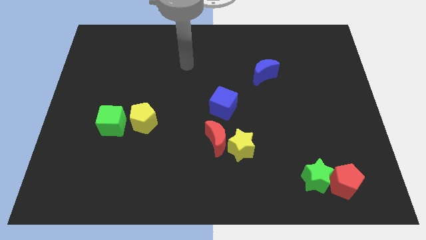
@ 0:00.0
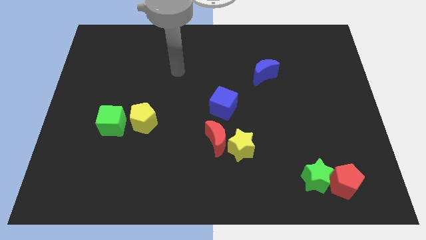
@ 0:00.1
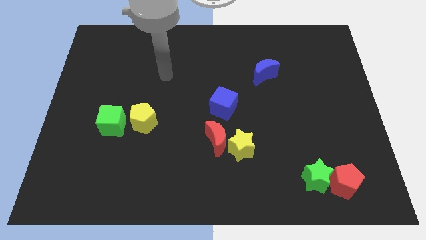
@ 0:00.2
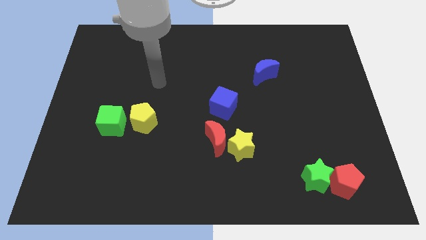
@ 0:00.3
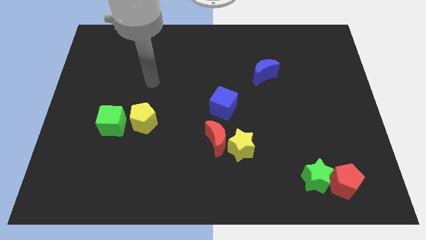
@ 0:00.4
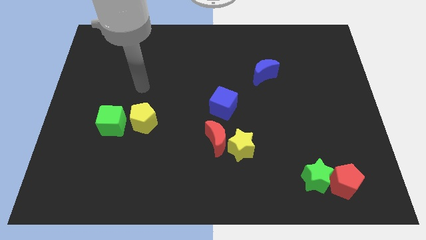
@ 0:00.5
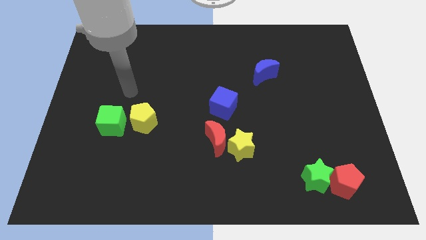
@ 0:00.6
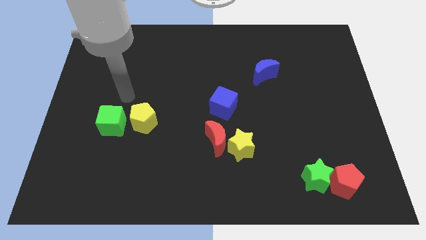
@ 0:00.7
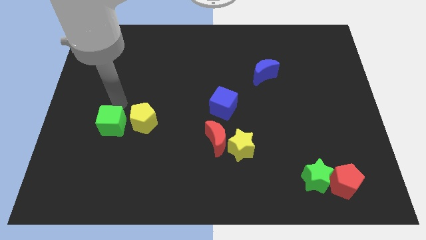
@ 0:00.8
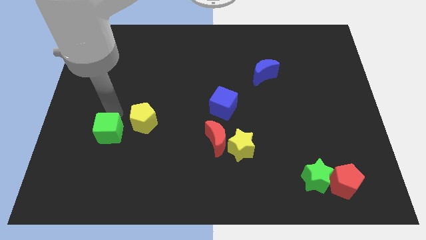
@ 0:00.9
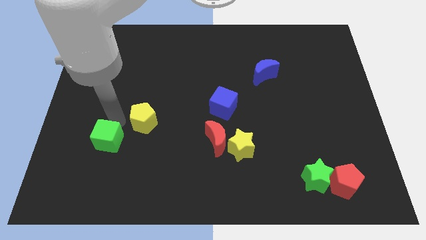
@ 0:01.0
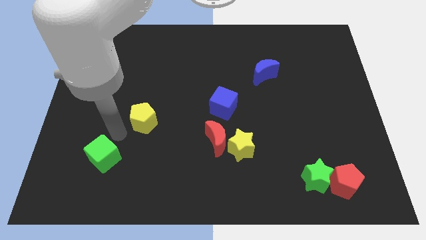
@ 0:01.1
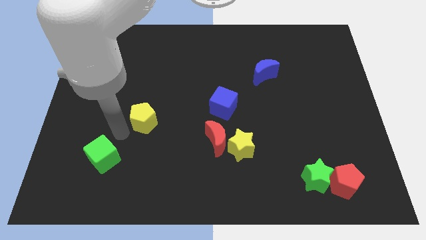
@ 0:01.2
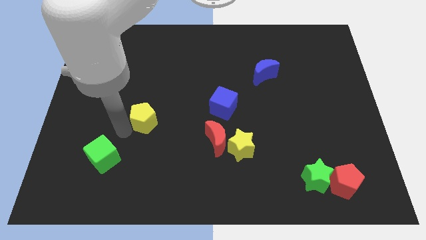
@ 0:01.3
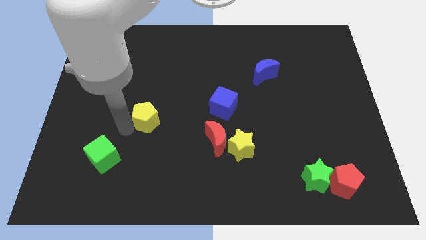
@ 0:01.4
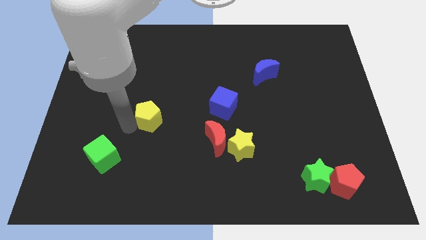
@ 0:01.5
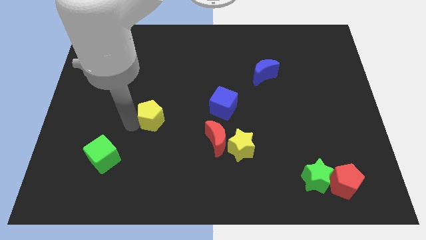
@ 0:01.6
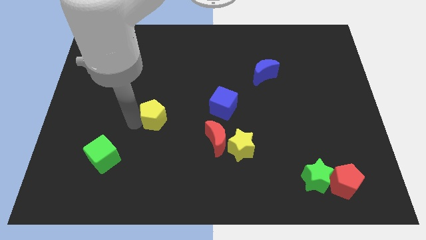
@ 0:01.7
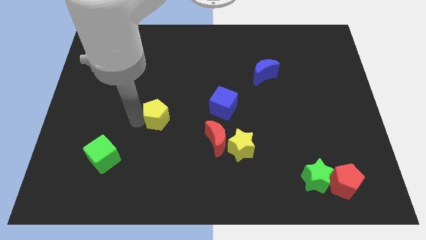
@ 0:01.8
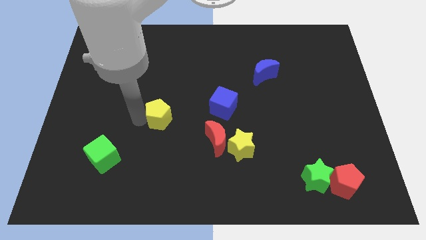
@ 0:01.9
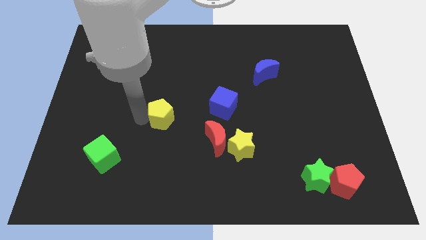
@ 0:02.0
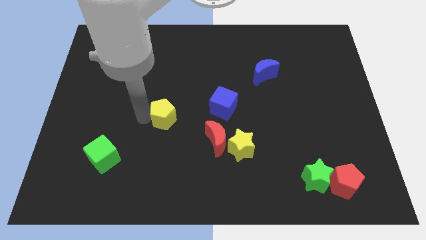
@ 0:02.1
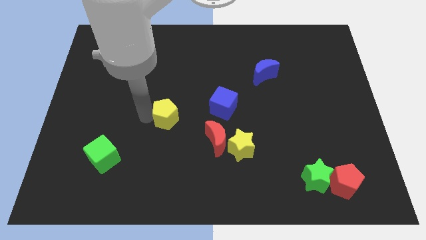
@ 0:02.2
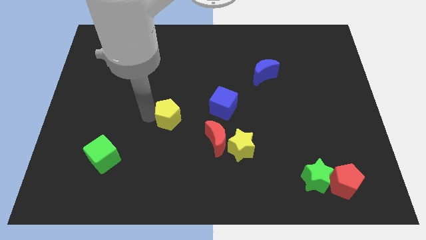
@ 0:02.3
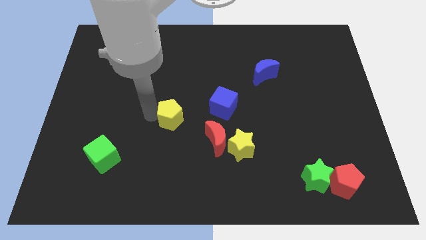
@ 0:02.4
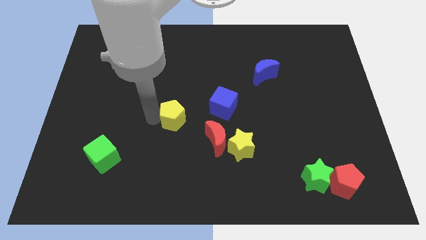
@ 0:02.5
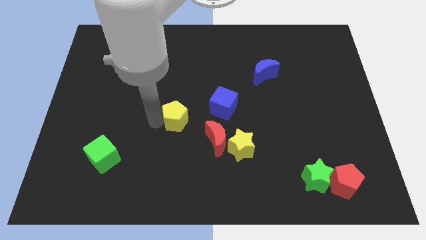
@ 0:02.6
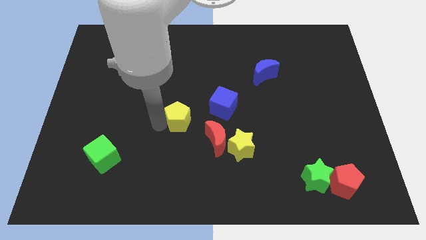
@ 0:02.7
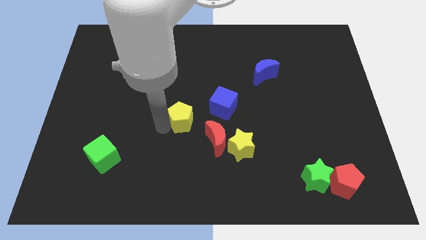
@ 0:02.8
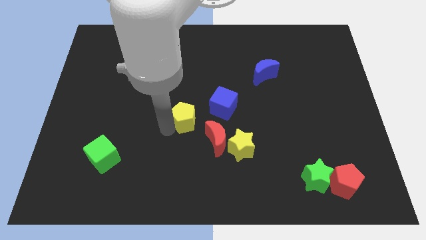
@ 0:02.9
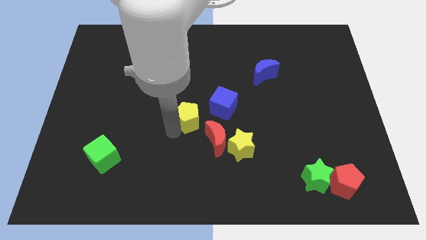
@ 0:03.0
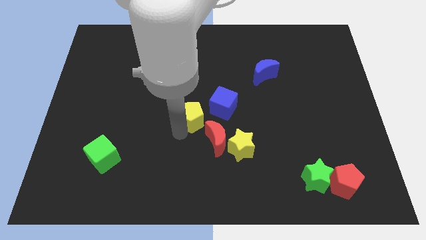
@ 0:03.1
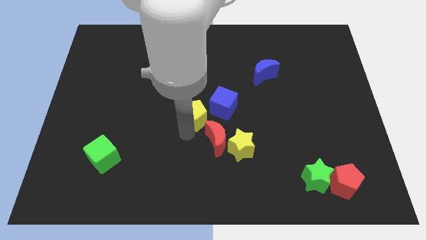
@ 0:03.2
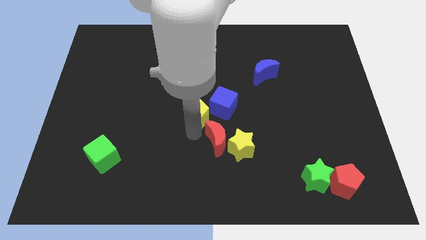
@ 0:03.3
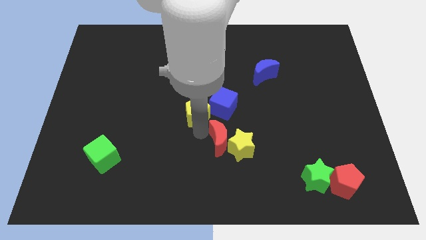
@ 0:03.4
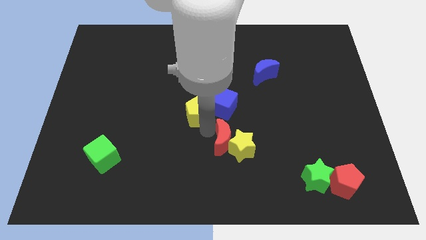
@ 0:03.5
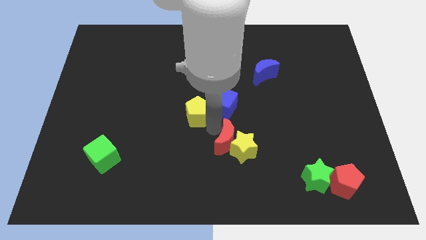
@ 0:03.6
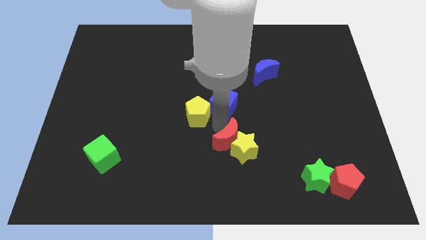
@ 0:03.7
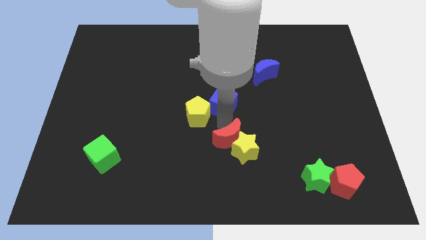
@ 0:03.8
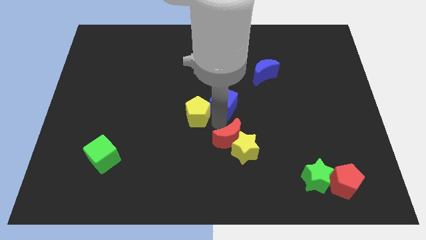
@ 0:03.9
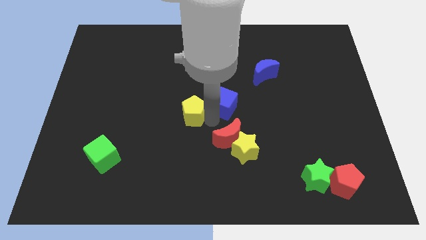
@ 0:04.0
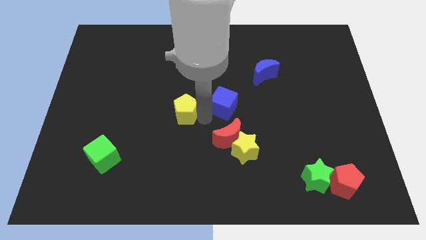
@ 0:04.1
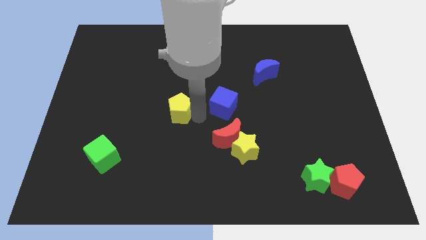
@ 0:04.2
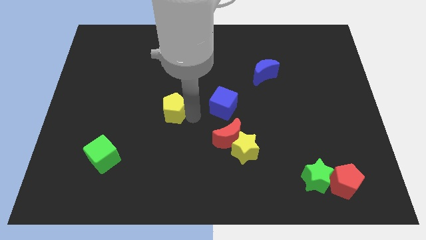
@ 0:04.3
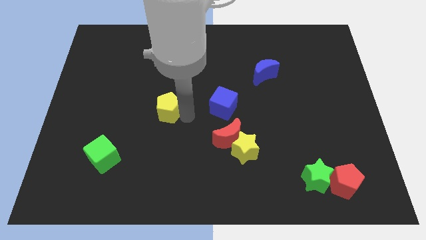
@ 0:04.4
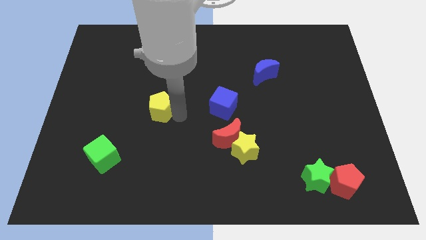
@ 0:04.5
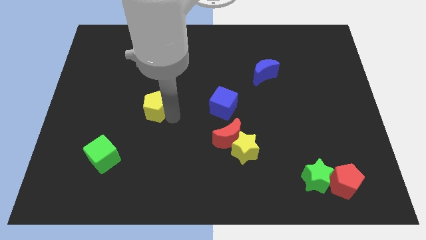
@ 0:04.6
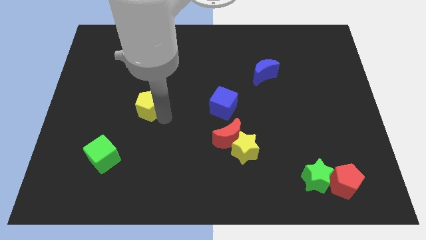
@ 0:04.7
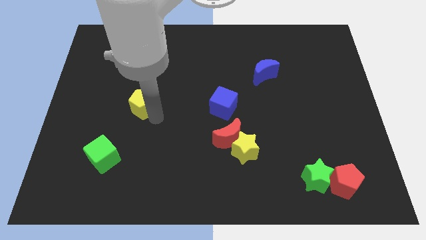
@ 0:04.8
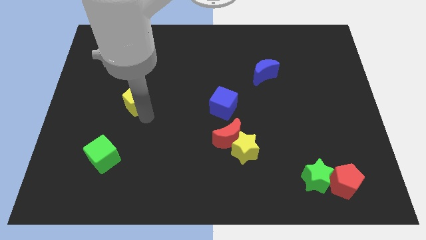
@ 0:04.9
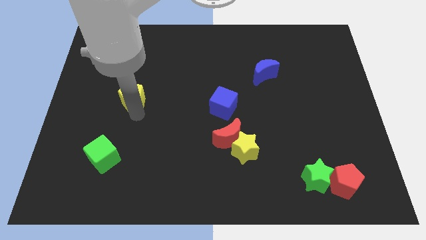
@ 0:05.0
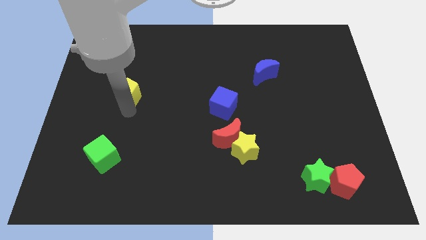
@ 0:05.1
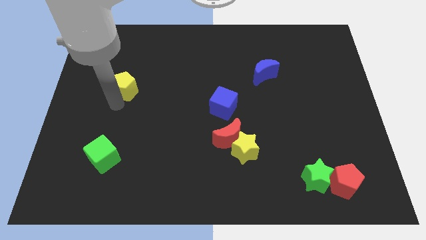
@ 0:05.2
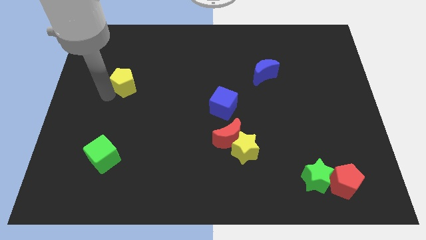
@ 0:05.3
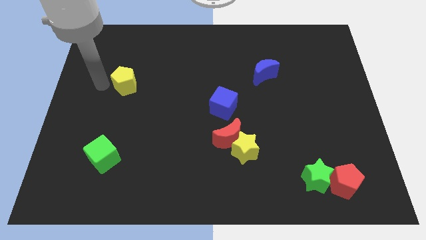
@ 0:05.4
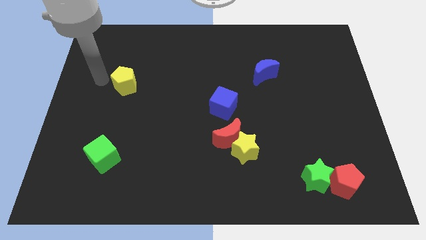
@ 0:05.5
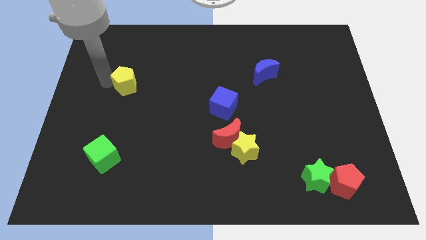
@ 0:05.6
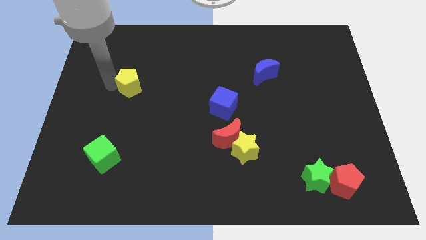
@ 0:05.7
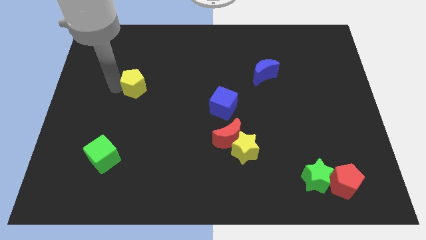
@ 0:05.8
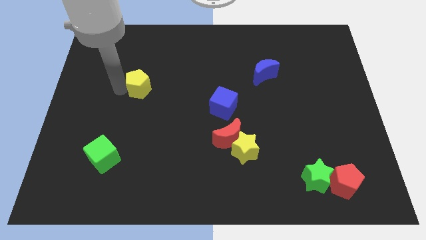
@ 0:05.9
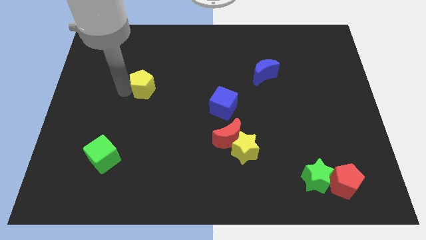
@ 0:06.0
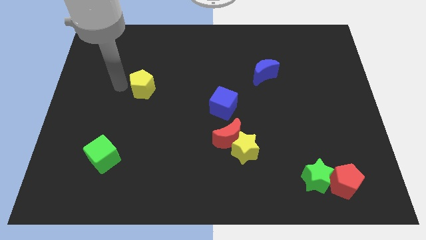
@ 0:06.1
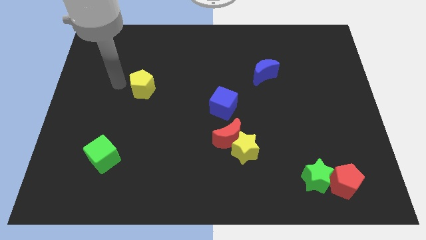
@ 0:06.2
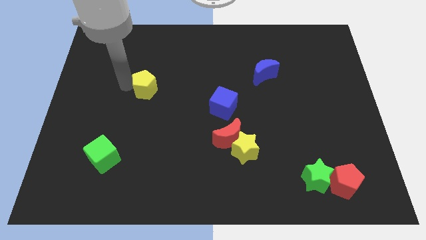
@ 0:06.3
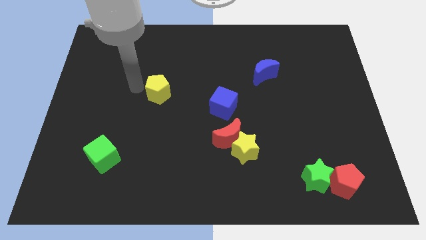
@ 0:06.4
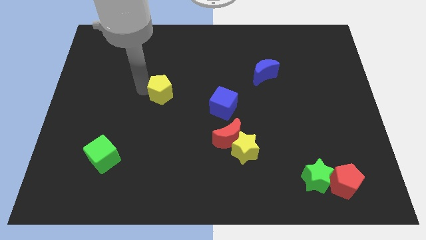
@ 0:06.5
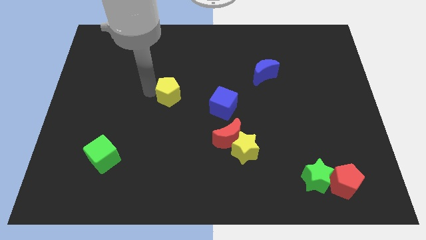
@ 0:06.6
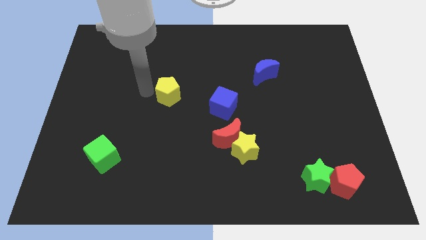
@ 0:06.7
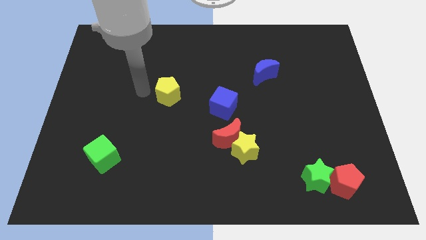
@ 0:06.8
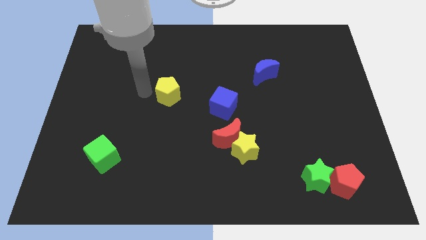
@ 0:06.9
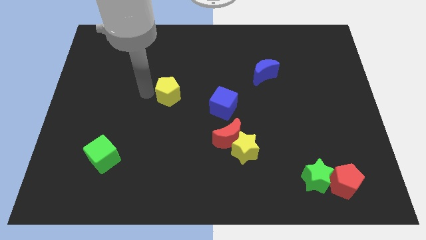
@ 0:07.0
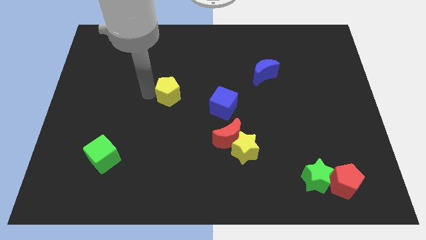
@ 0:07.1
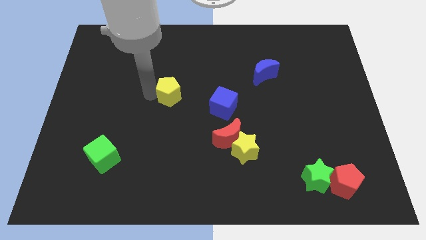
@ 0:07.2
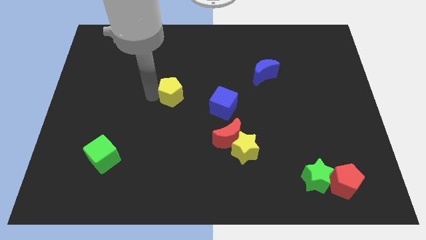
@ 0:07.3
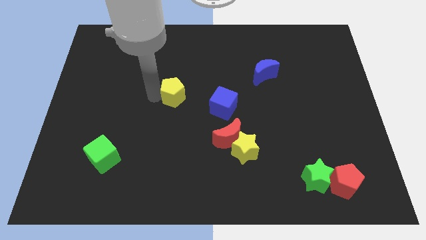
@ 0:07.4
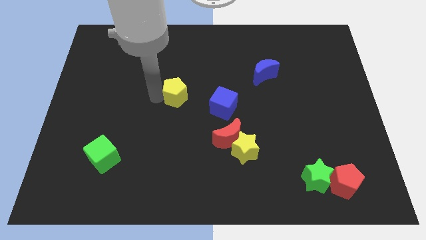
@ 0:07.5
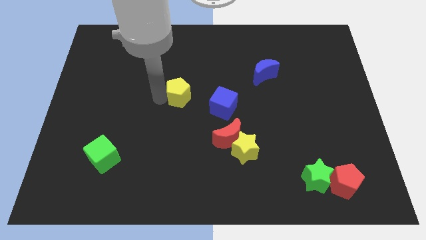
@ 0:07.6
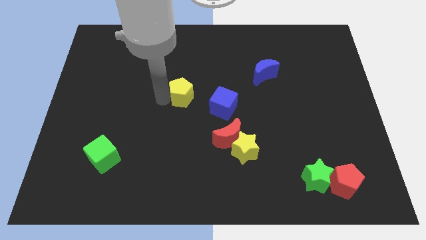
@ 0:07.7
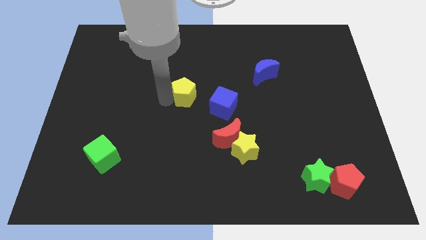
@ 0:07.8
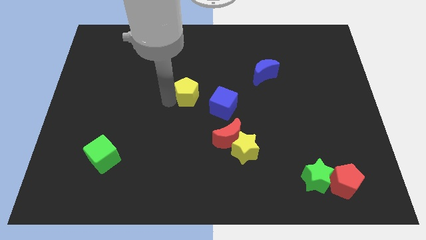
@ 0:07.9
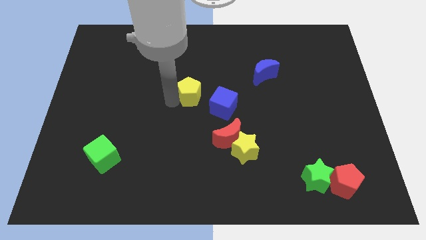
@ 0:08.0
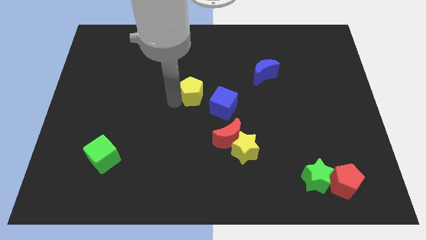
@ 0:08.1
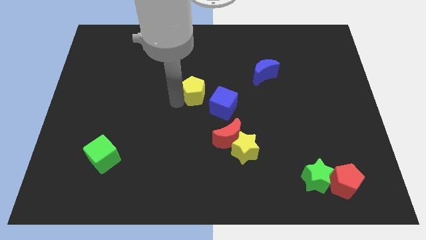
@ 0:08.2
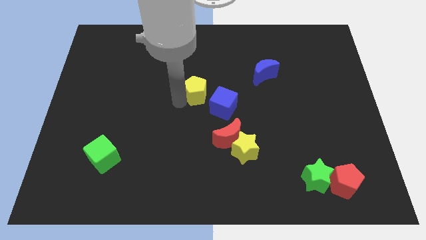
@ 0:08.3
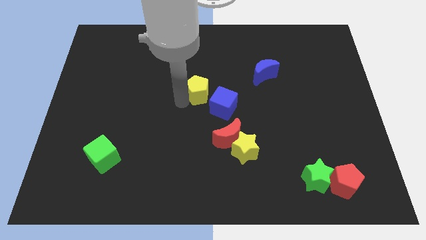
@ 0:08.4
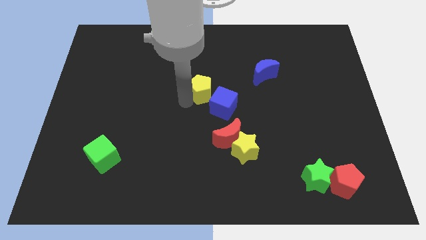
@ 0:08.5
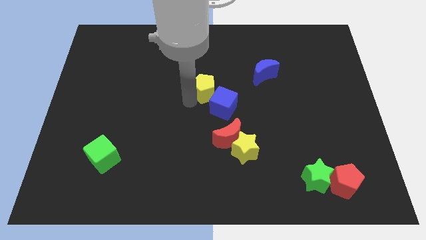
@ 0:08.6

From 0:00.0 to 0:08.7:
move the yellow pentagon above the blue cube
